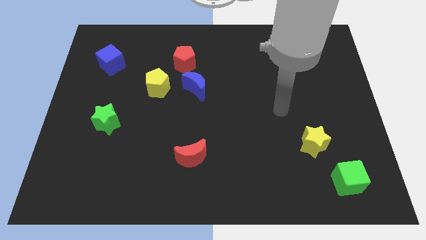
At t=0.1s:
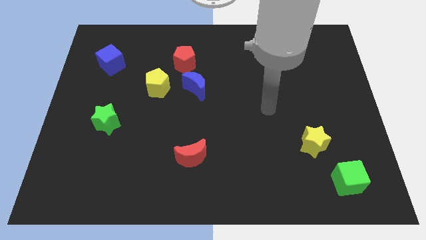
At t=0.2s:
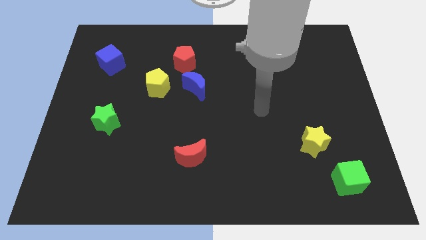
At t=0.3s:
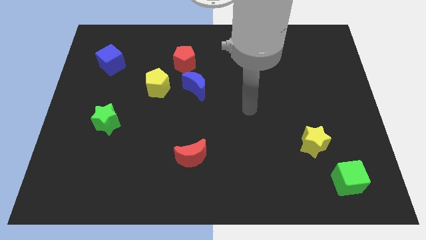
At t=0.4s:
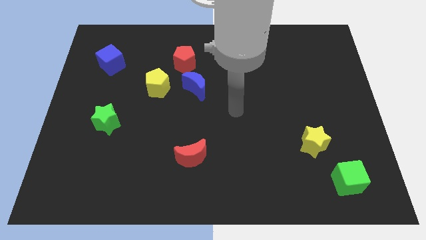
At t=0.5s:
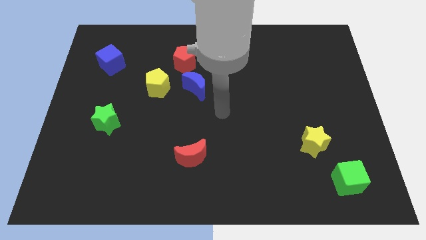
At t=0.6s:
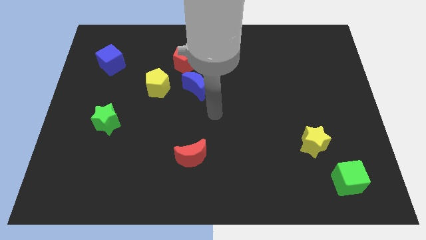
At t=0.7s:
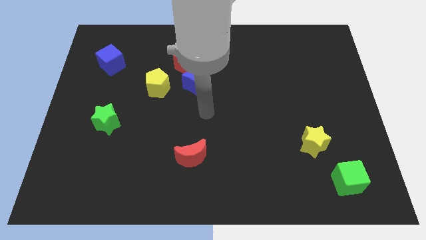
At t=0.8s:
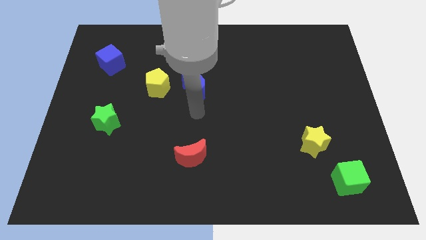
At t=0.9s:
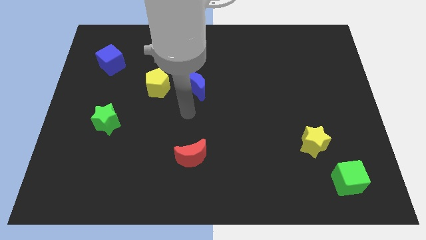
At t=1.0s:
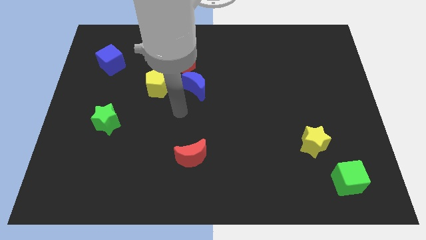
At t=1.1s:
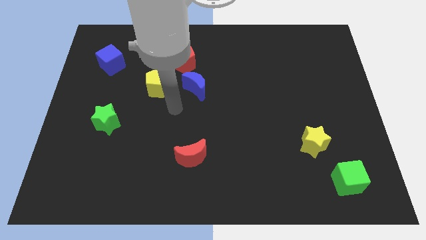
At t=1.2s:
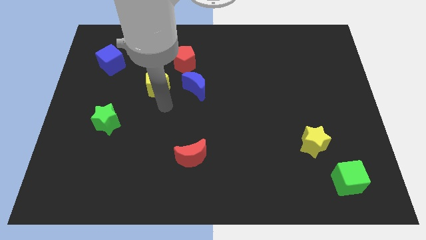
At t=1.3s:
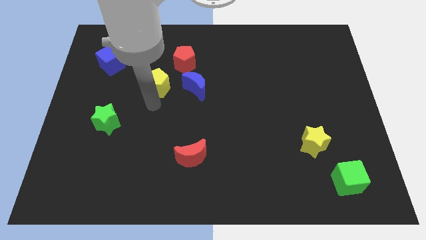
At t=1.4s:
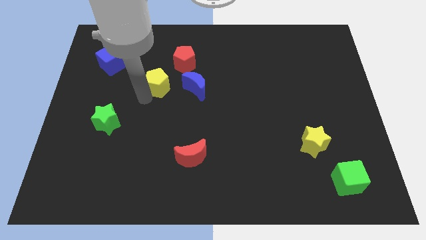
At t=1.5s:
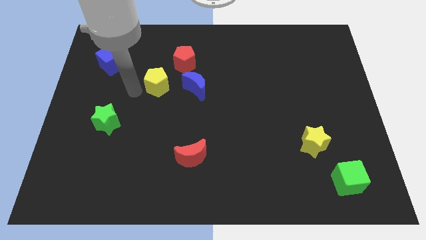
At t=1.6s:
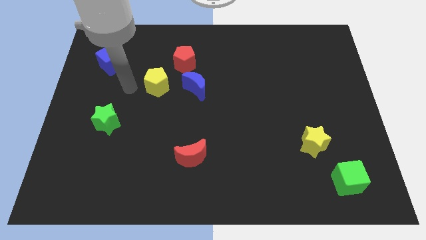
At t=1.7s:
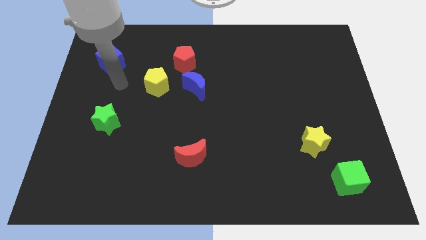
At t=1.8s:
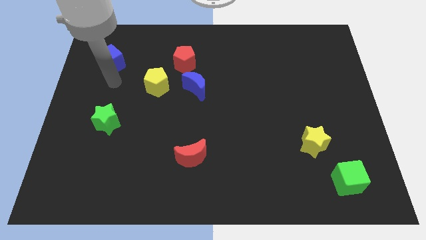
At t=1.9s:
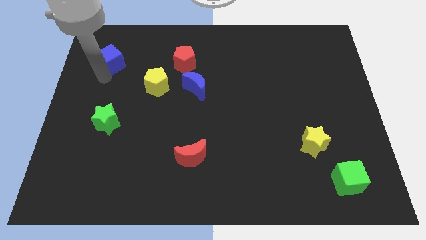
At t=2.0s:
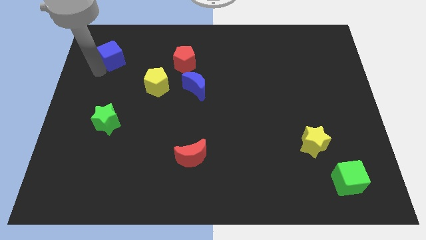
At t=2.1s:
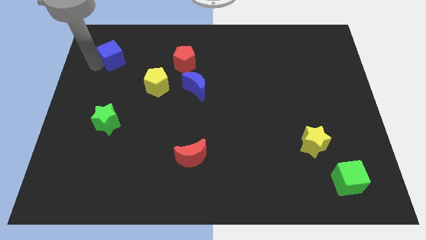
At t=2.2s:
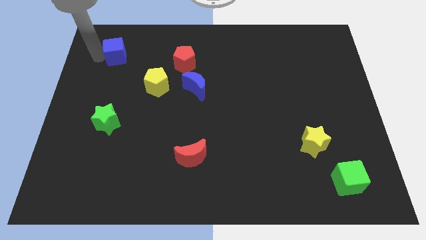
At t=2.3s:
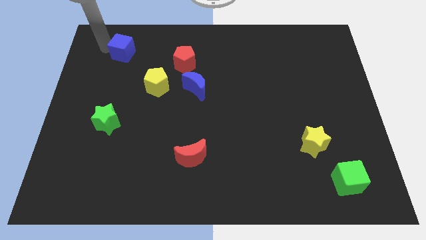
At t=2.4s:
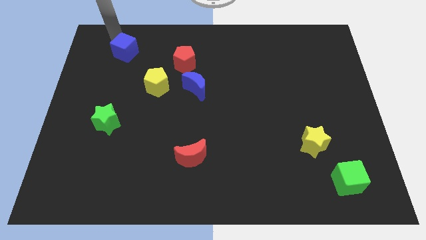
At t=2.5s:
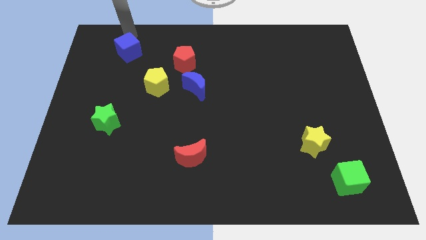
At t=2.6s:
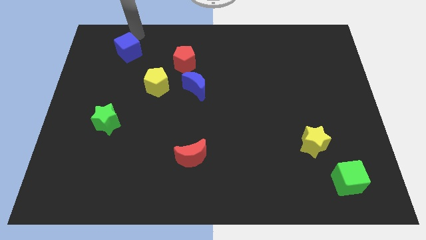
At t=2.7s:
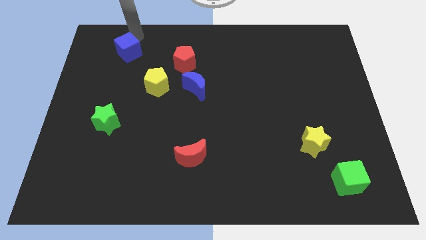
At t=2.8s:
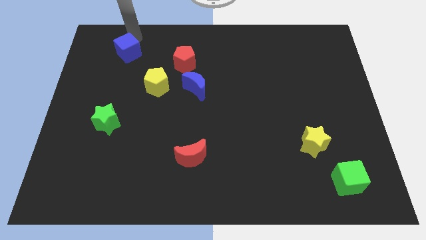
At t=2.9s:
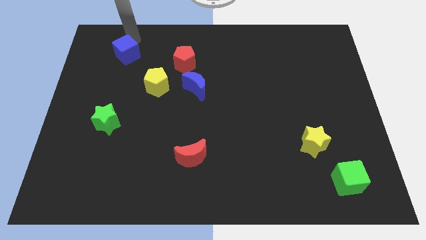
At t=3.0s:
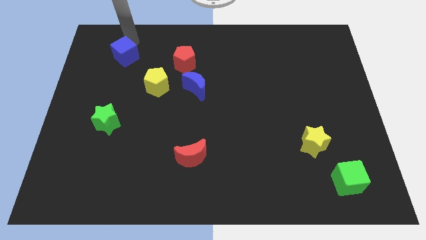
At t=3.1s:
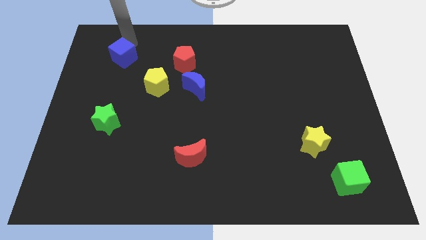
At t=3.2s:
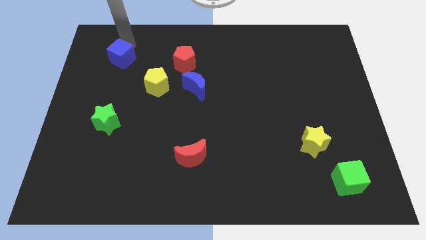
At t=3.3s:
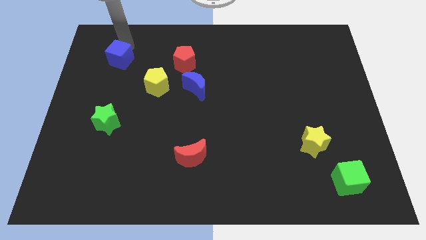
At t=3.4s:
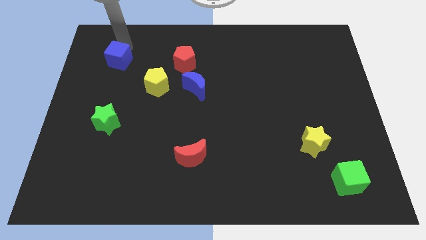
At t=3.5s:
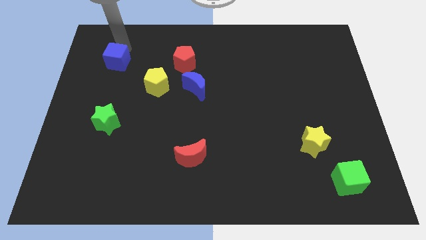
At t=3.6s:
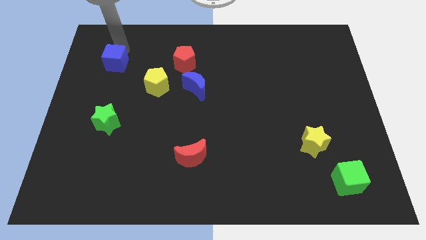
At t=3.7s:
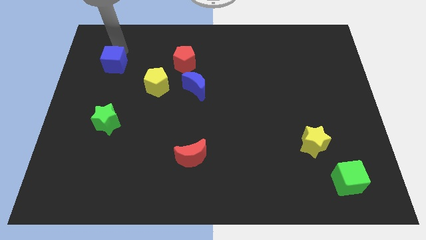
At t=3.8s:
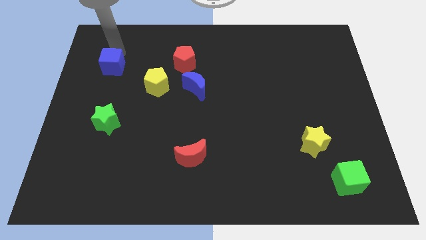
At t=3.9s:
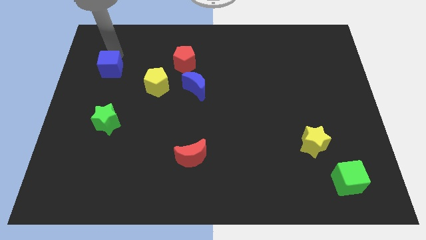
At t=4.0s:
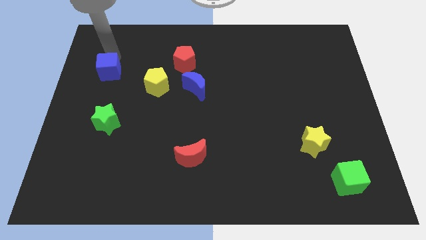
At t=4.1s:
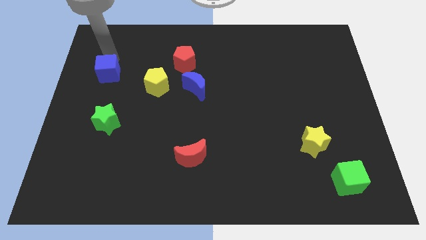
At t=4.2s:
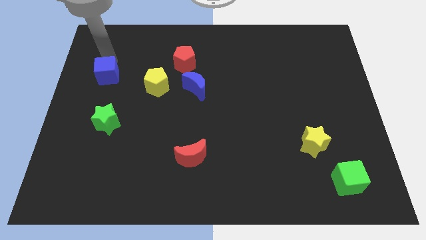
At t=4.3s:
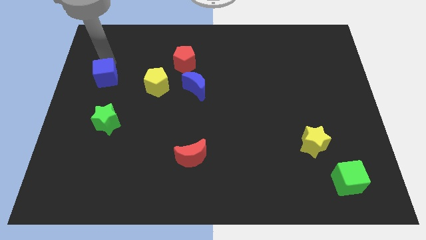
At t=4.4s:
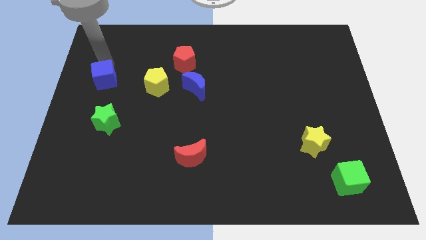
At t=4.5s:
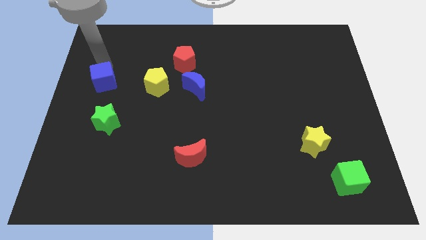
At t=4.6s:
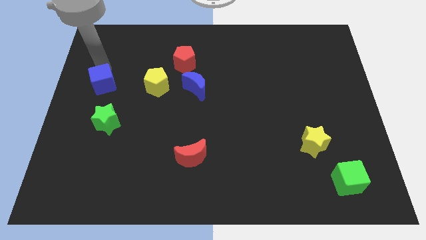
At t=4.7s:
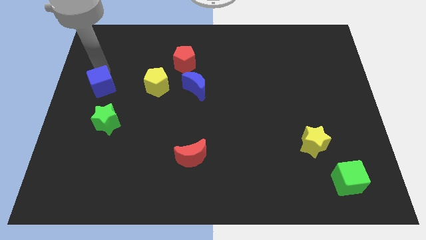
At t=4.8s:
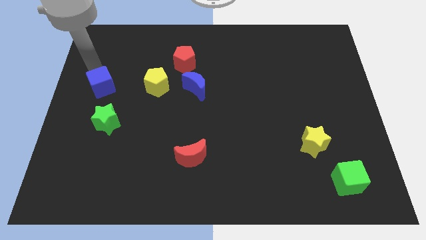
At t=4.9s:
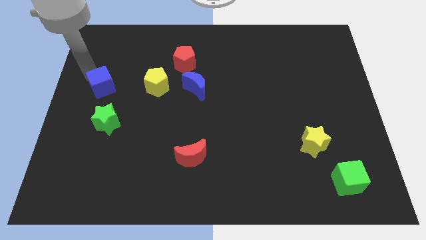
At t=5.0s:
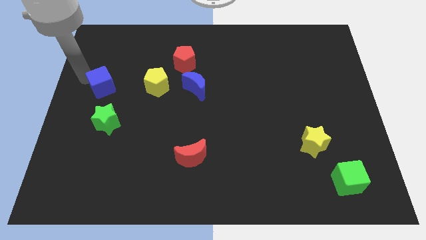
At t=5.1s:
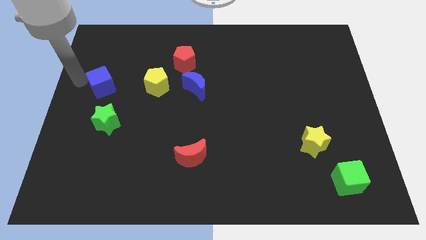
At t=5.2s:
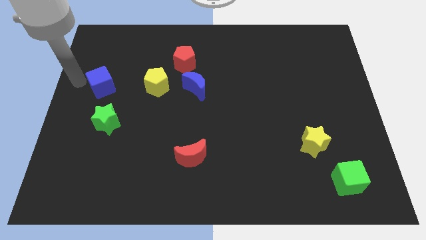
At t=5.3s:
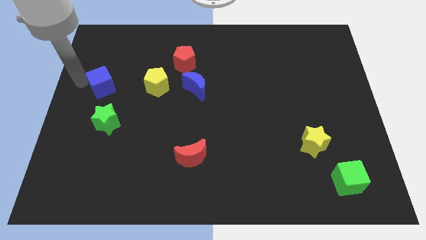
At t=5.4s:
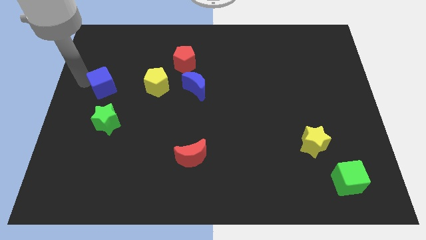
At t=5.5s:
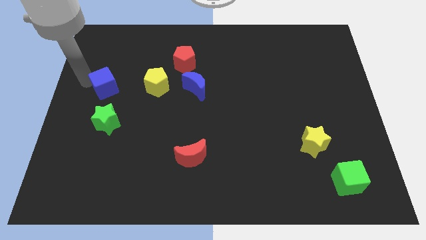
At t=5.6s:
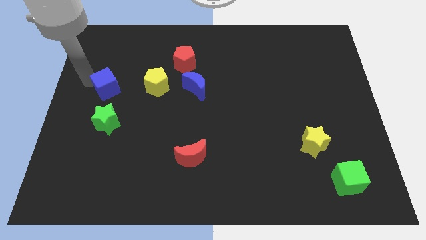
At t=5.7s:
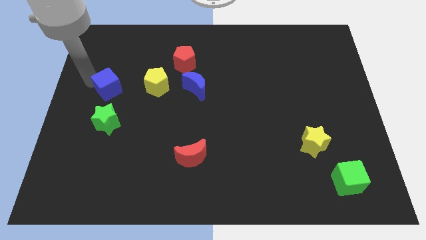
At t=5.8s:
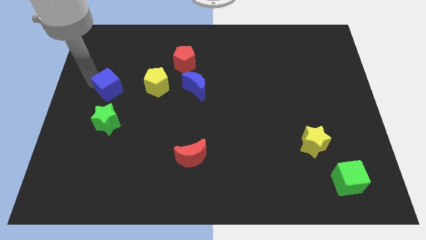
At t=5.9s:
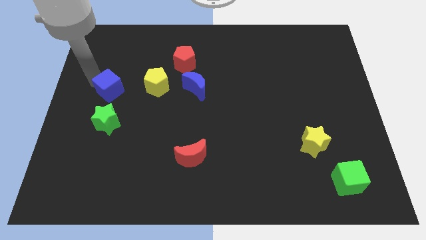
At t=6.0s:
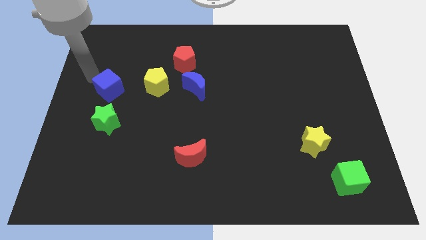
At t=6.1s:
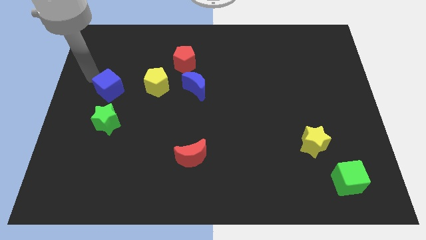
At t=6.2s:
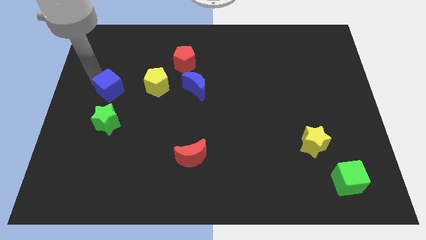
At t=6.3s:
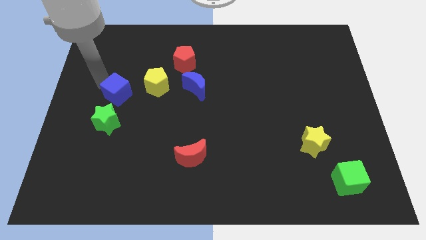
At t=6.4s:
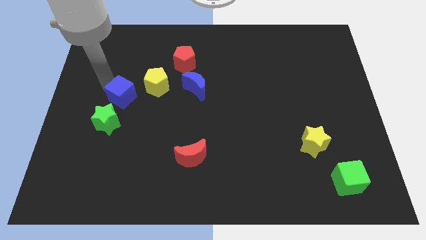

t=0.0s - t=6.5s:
put the blue cube to the top right side of the green star

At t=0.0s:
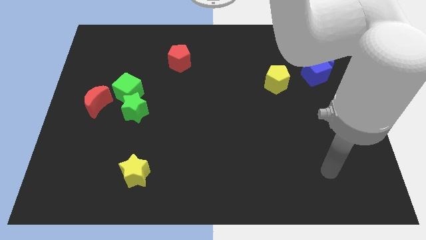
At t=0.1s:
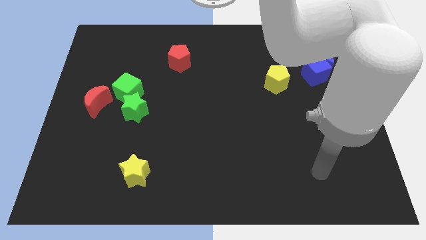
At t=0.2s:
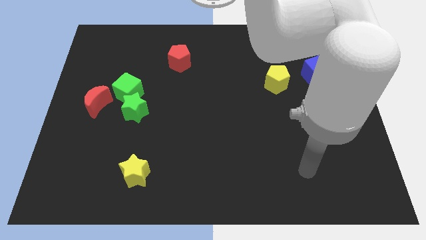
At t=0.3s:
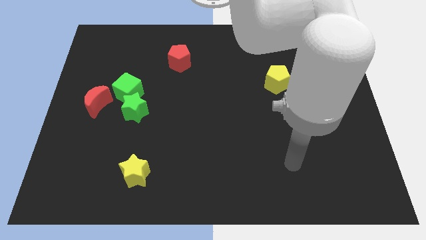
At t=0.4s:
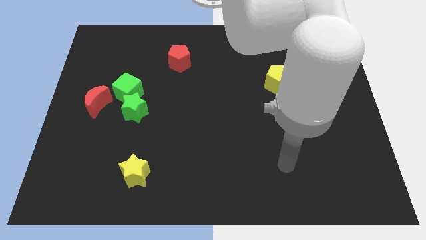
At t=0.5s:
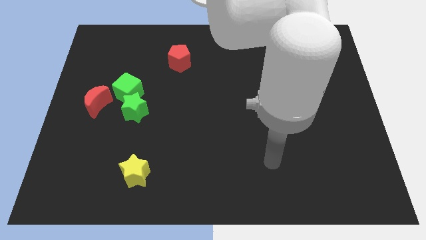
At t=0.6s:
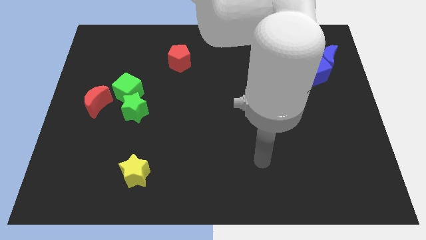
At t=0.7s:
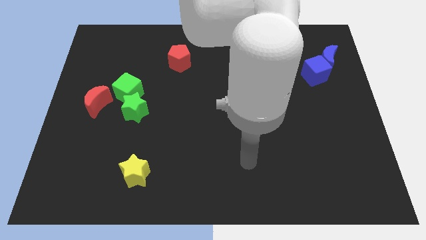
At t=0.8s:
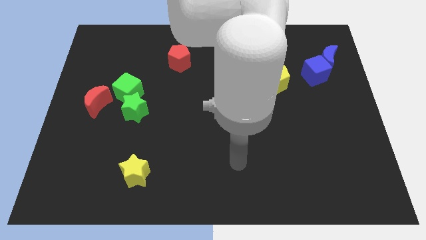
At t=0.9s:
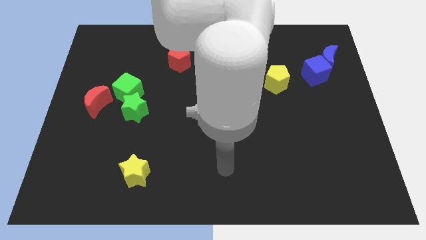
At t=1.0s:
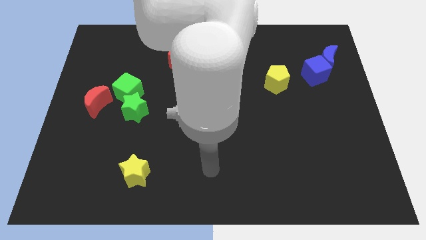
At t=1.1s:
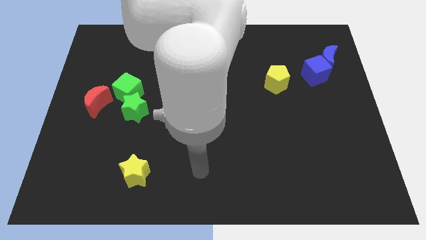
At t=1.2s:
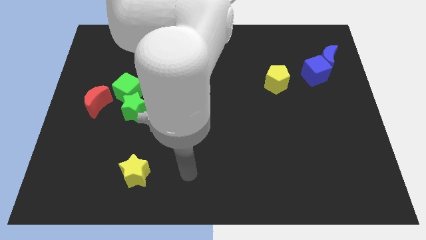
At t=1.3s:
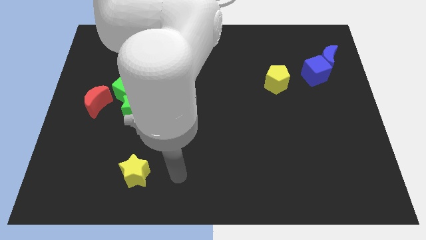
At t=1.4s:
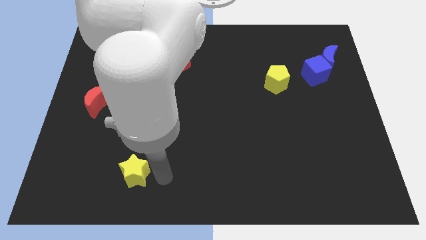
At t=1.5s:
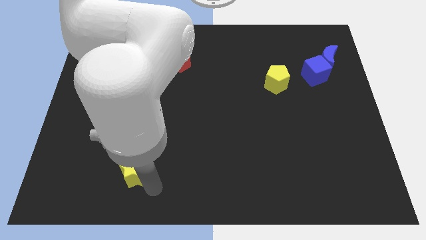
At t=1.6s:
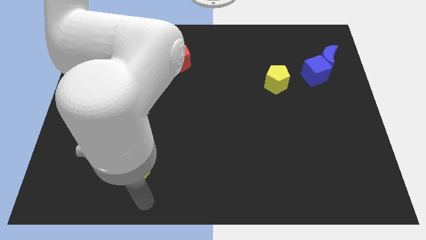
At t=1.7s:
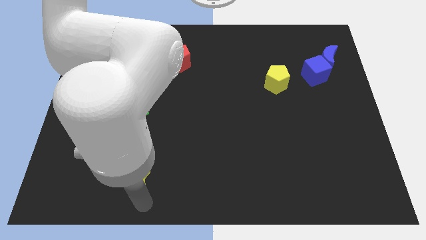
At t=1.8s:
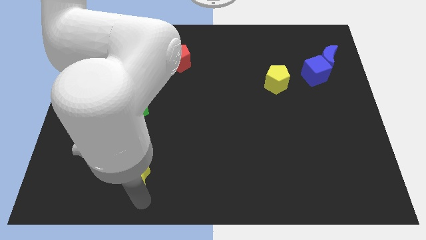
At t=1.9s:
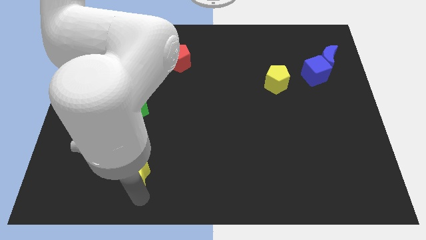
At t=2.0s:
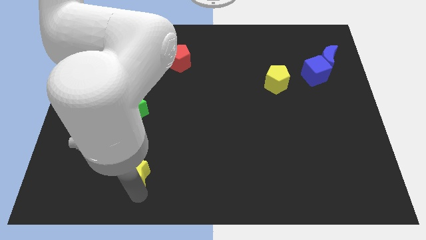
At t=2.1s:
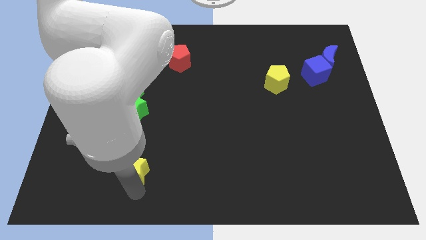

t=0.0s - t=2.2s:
move the yellow star below the green star
